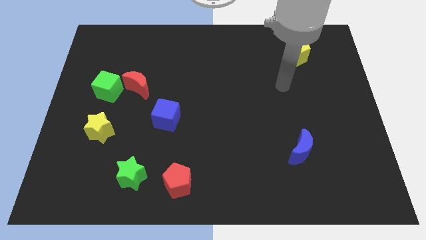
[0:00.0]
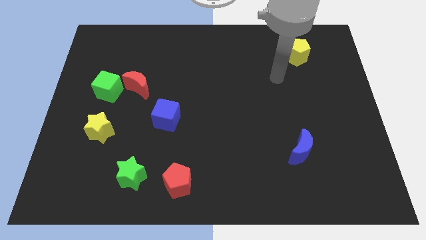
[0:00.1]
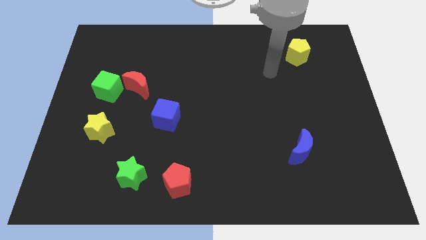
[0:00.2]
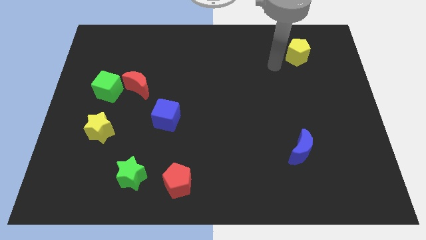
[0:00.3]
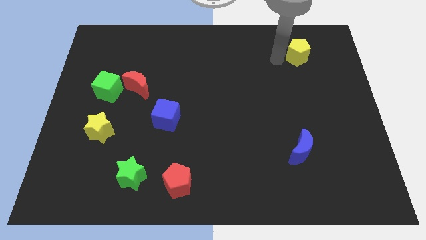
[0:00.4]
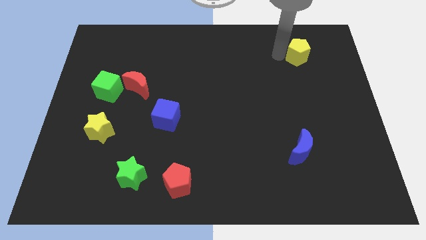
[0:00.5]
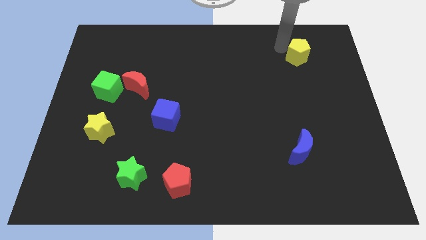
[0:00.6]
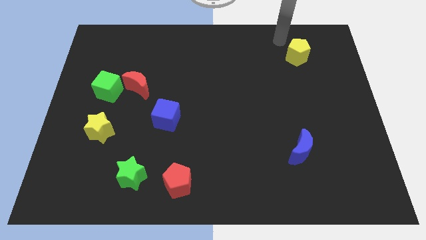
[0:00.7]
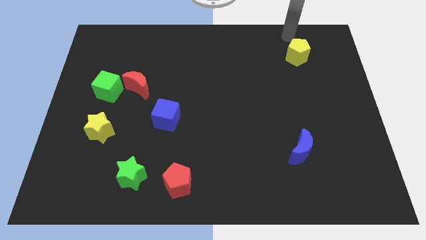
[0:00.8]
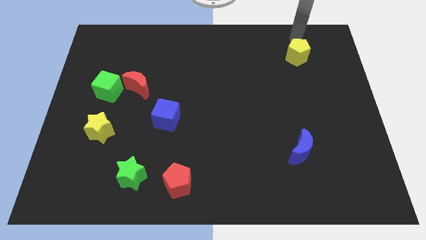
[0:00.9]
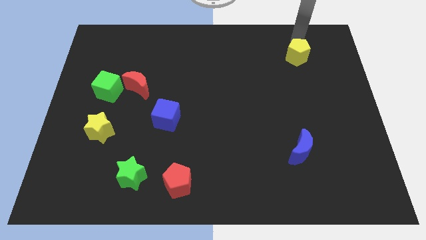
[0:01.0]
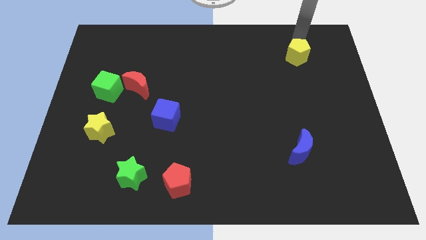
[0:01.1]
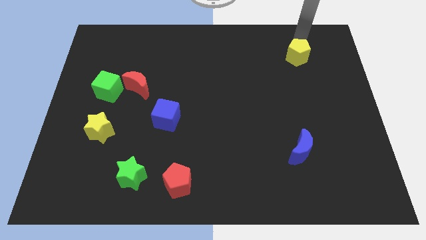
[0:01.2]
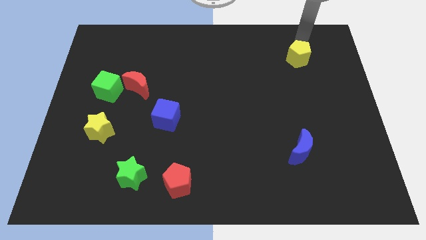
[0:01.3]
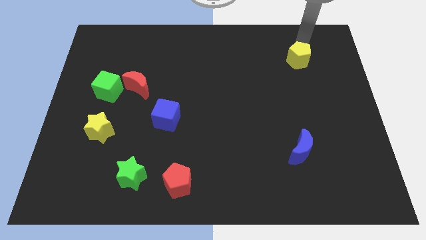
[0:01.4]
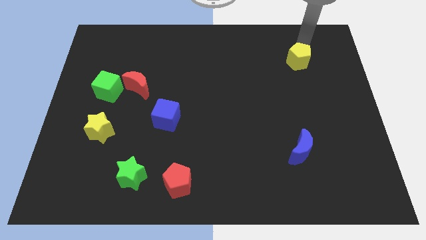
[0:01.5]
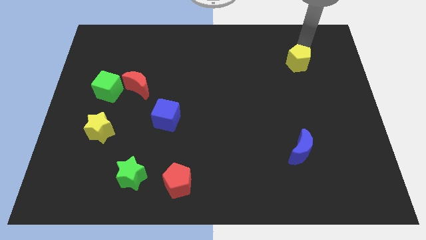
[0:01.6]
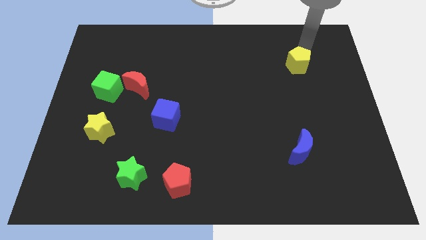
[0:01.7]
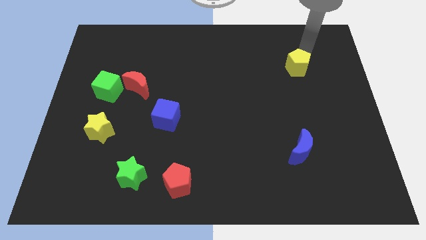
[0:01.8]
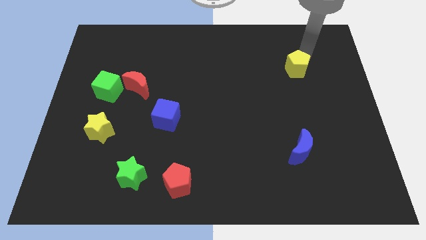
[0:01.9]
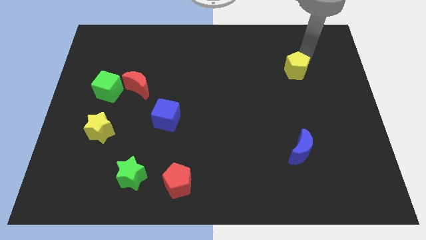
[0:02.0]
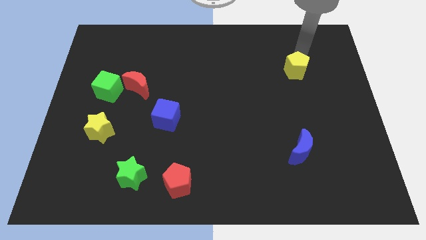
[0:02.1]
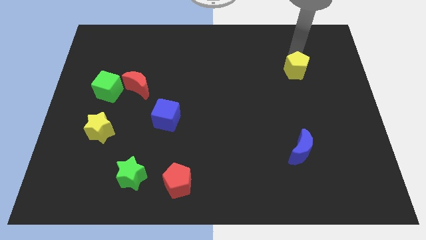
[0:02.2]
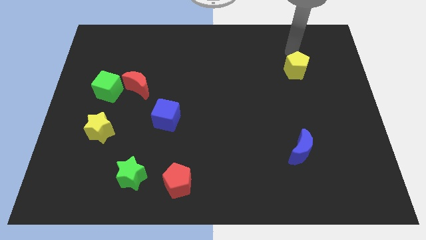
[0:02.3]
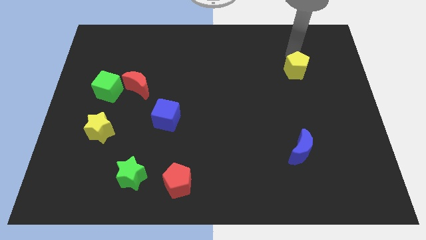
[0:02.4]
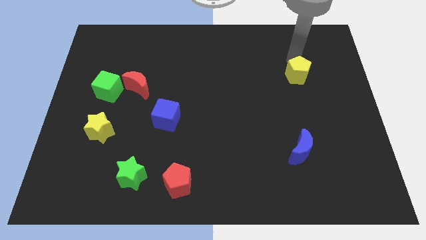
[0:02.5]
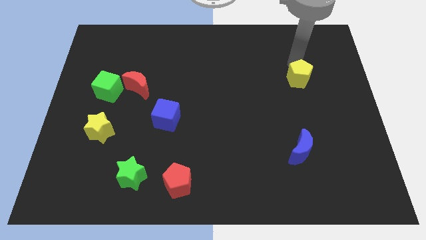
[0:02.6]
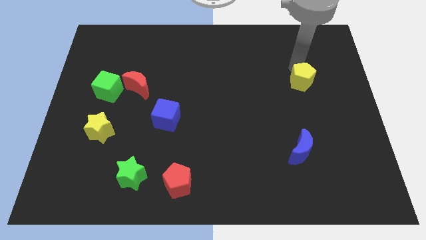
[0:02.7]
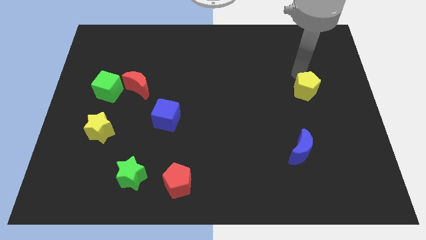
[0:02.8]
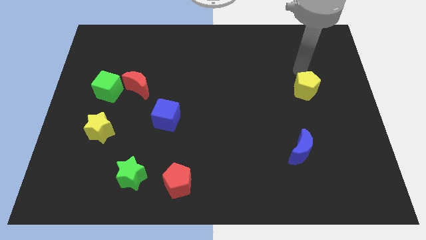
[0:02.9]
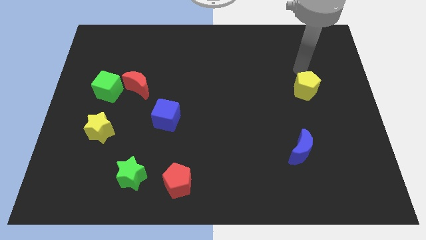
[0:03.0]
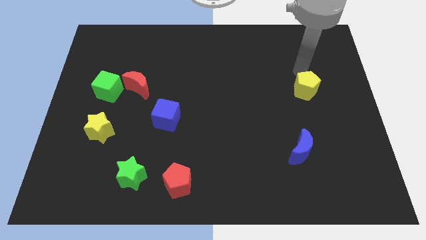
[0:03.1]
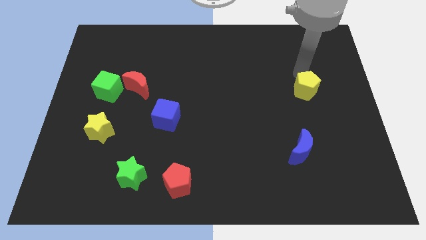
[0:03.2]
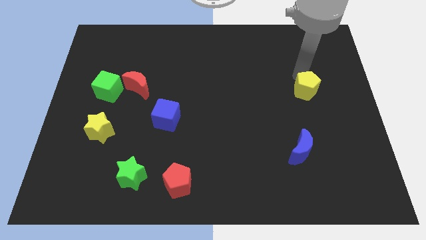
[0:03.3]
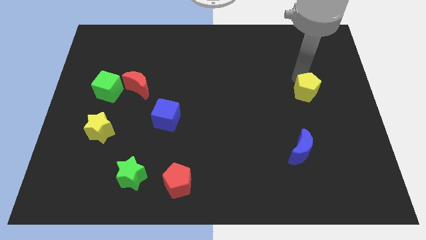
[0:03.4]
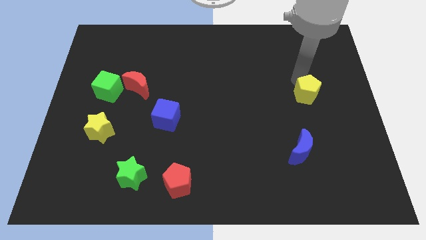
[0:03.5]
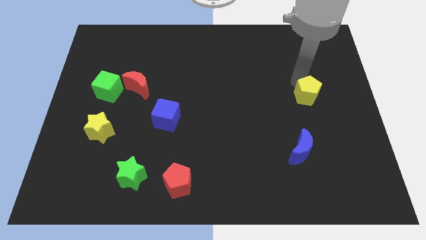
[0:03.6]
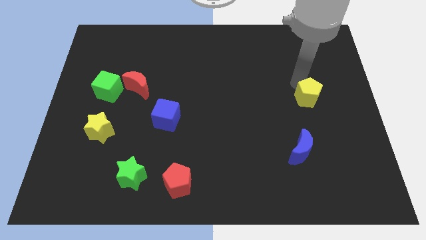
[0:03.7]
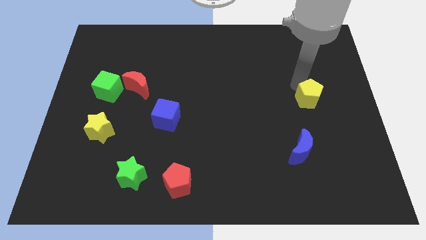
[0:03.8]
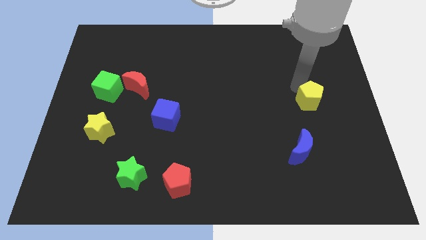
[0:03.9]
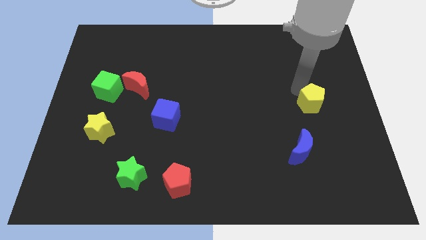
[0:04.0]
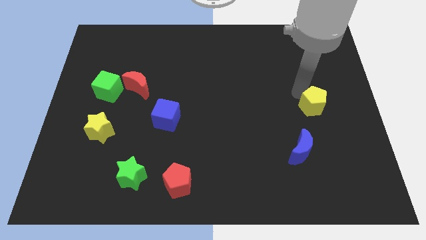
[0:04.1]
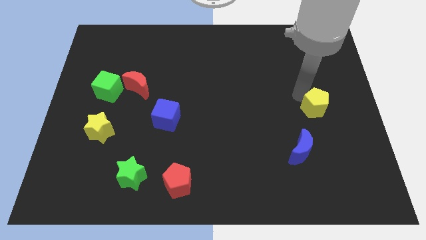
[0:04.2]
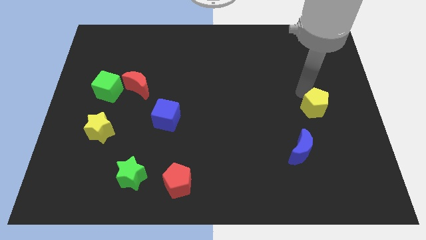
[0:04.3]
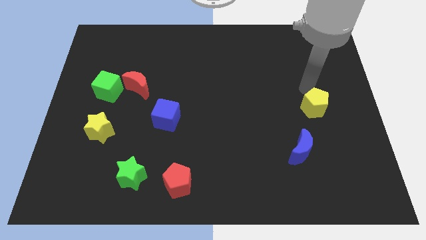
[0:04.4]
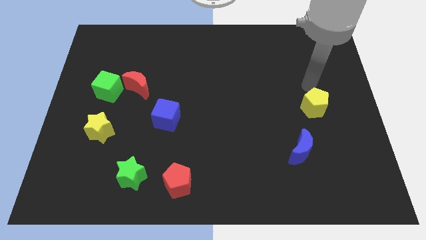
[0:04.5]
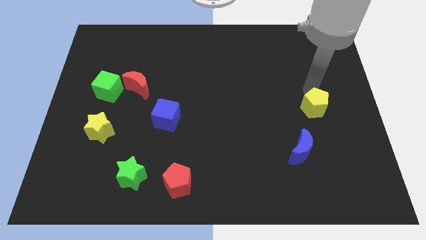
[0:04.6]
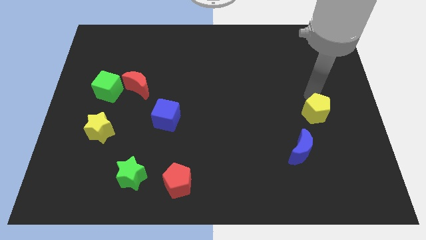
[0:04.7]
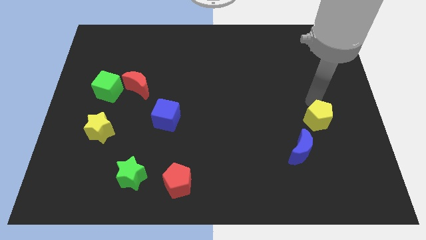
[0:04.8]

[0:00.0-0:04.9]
move the yellow pentagon down

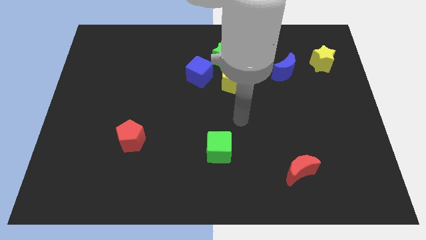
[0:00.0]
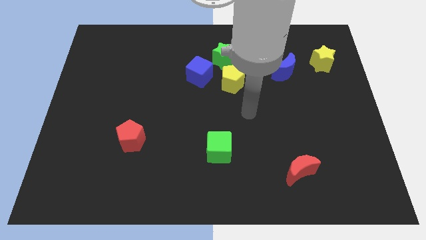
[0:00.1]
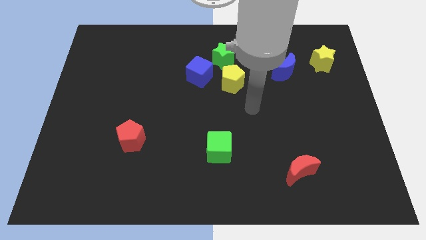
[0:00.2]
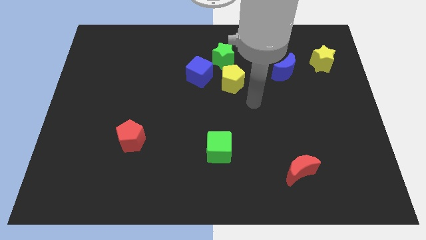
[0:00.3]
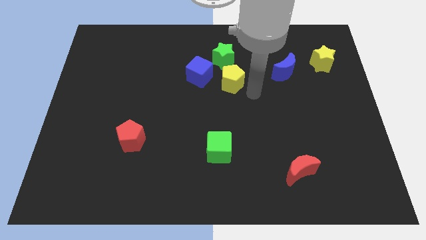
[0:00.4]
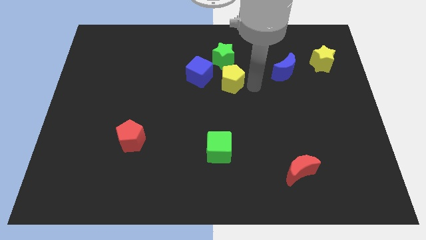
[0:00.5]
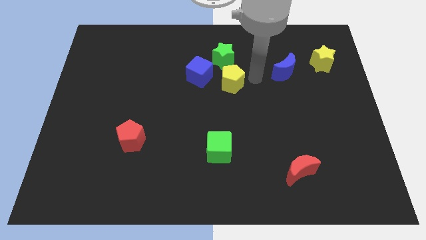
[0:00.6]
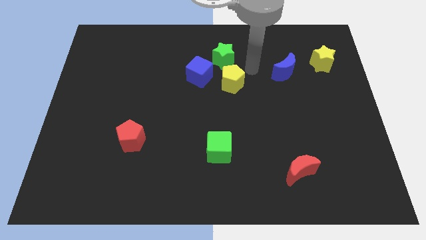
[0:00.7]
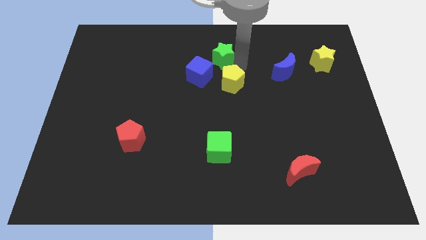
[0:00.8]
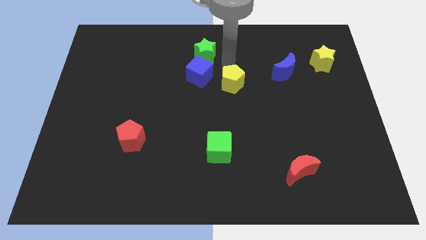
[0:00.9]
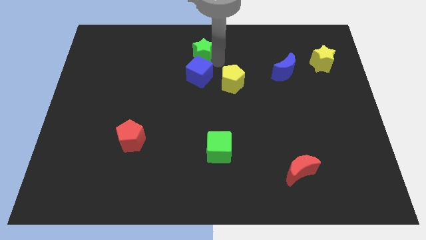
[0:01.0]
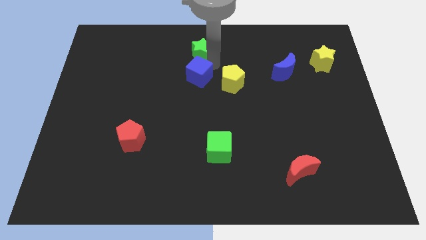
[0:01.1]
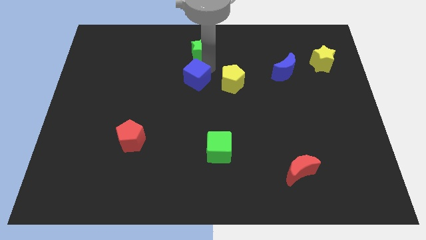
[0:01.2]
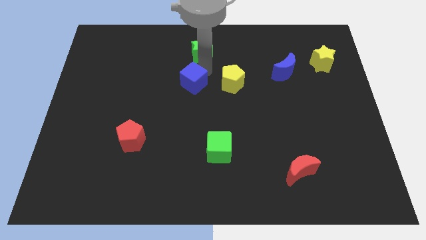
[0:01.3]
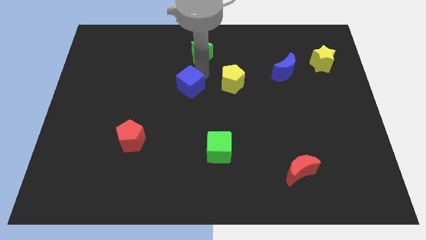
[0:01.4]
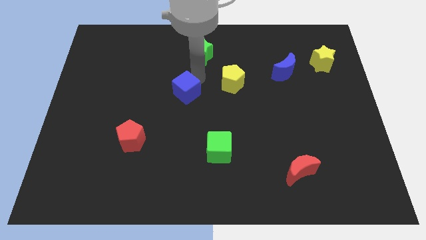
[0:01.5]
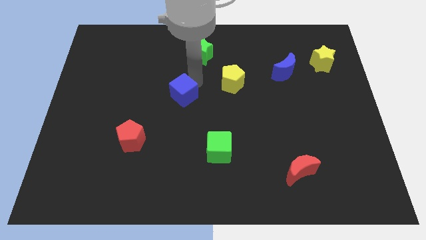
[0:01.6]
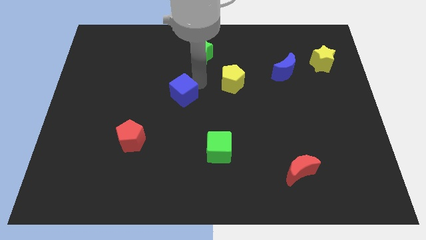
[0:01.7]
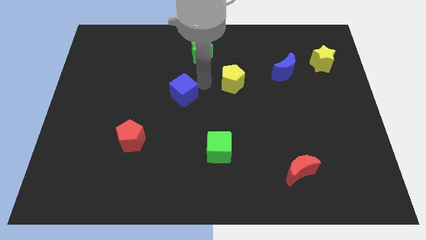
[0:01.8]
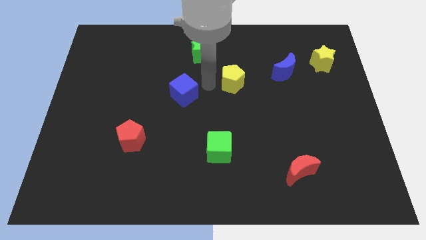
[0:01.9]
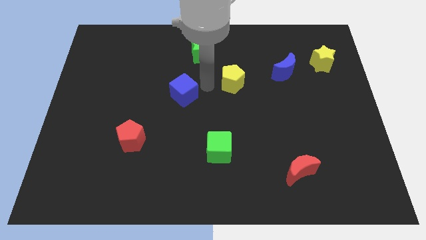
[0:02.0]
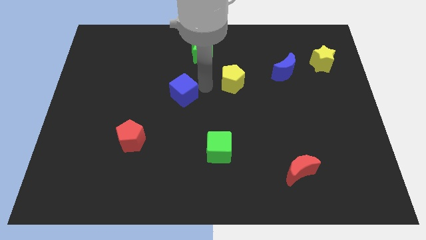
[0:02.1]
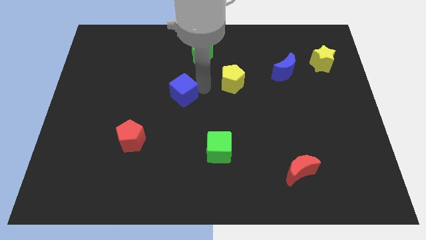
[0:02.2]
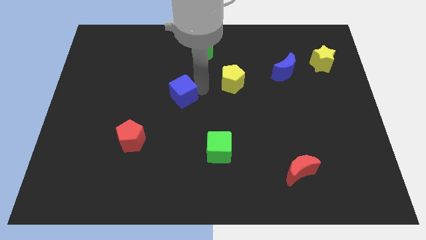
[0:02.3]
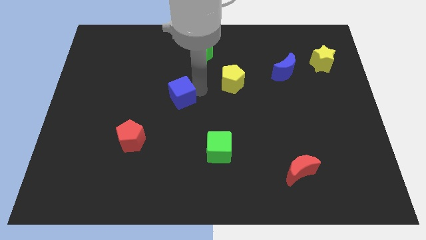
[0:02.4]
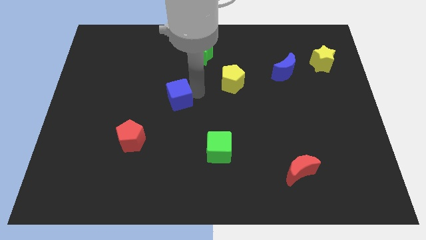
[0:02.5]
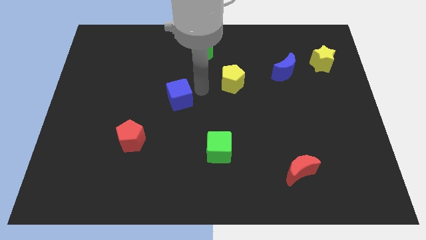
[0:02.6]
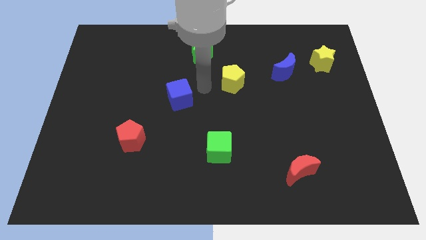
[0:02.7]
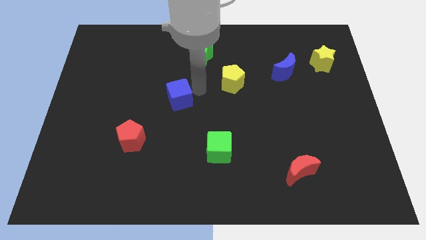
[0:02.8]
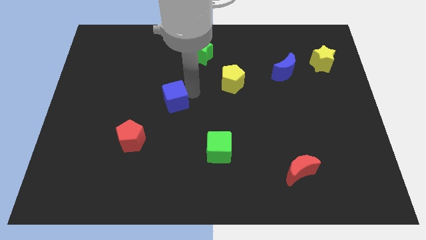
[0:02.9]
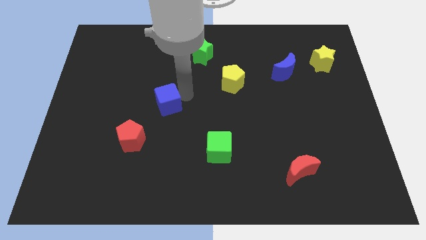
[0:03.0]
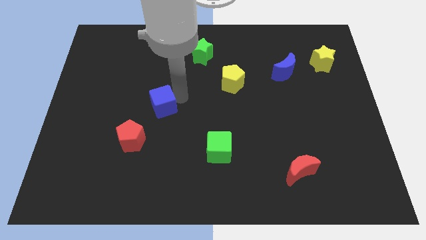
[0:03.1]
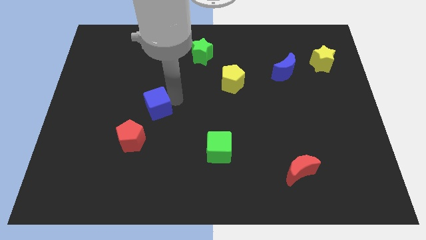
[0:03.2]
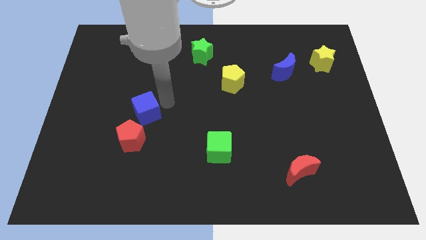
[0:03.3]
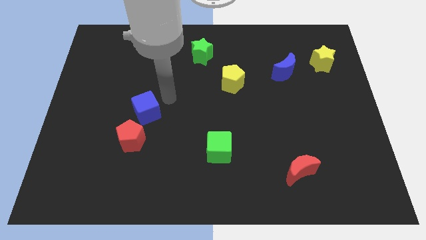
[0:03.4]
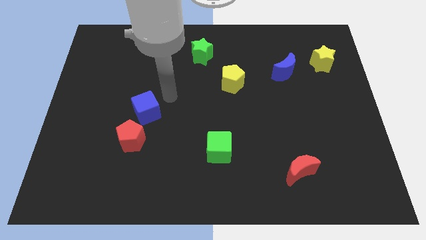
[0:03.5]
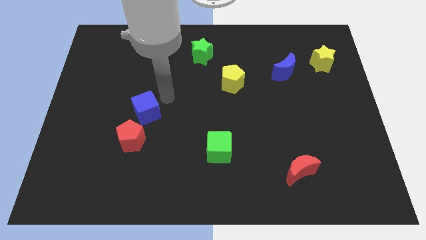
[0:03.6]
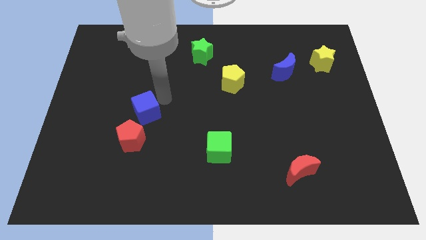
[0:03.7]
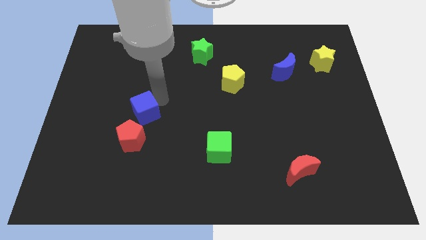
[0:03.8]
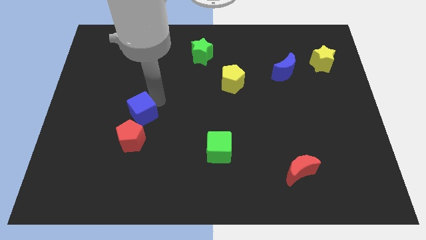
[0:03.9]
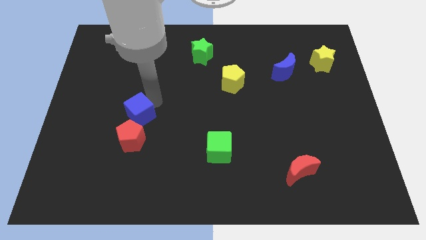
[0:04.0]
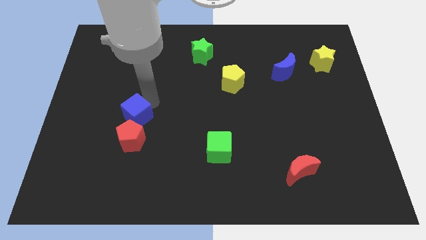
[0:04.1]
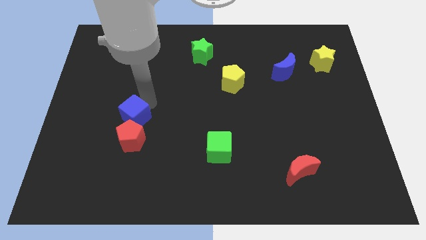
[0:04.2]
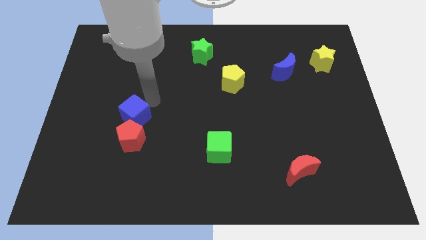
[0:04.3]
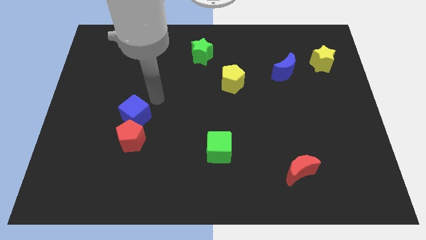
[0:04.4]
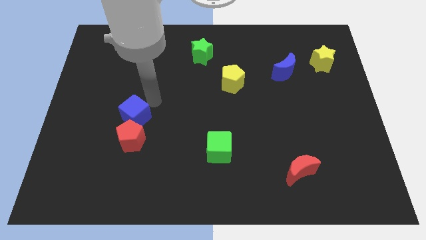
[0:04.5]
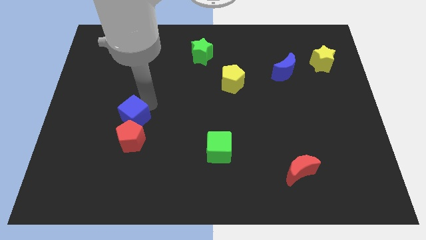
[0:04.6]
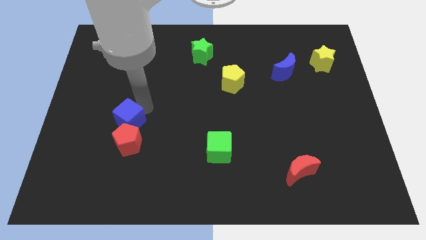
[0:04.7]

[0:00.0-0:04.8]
slide the blue cube downwards and to the left diagonally
